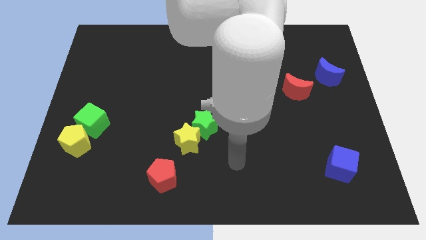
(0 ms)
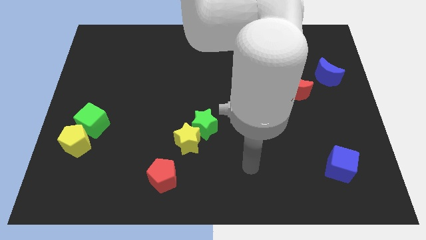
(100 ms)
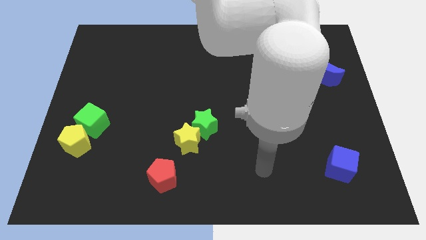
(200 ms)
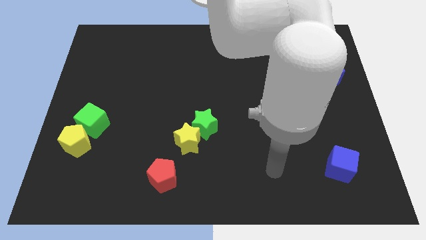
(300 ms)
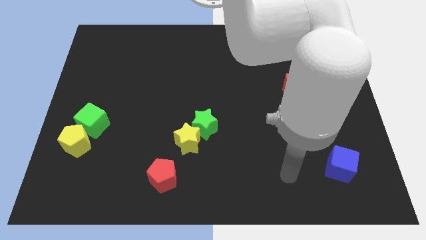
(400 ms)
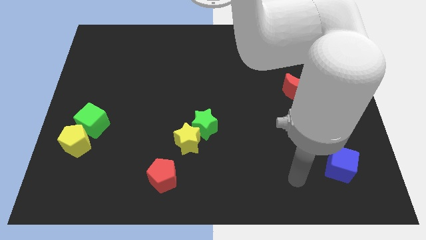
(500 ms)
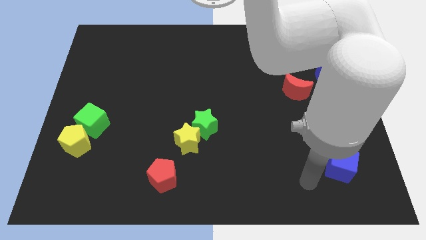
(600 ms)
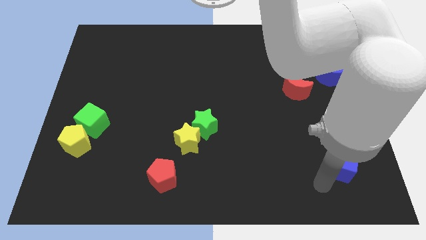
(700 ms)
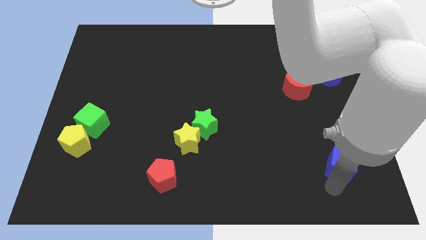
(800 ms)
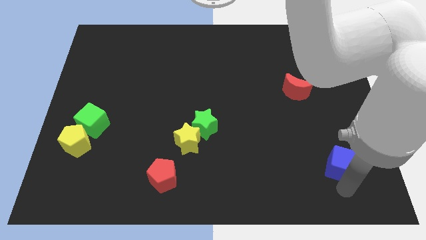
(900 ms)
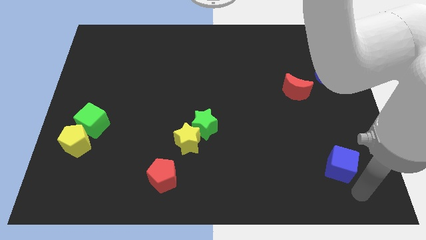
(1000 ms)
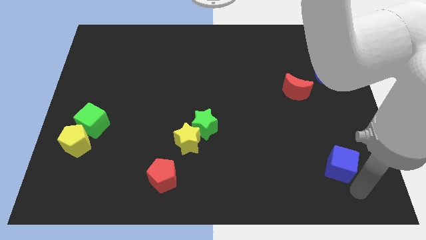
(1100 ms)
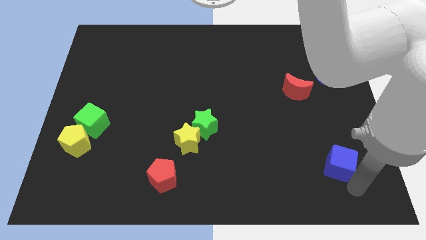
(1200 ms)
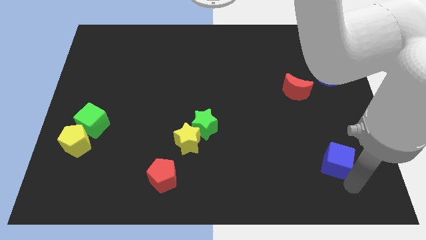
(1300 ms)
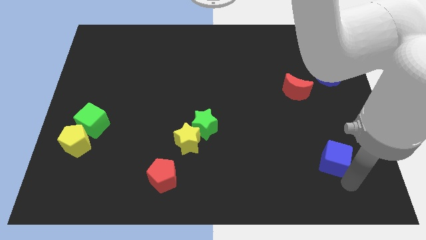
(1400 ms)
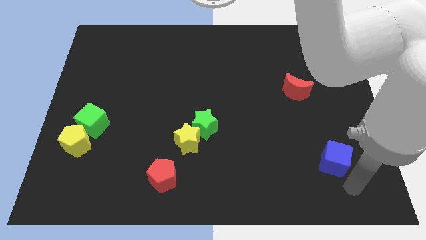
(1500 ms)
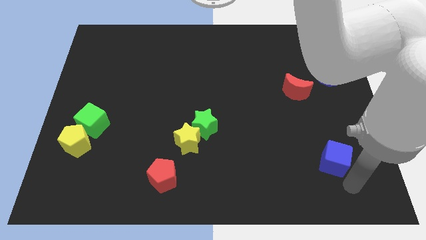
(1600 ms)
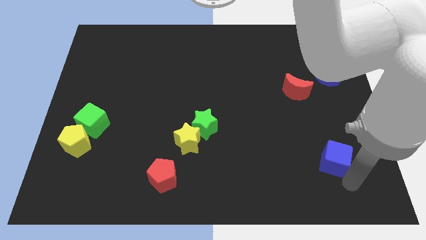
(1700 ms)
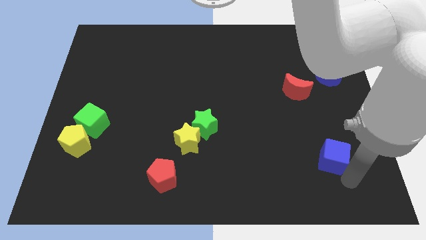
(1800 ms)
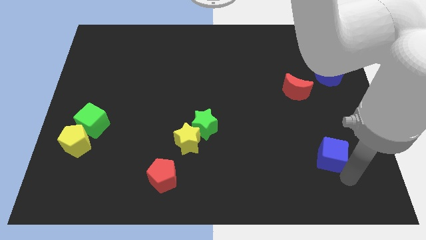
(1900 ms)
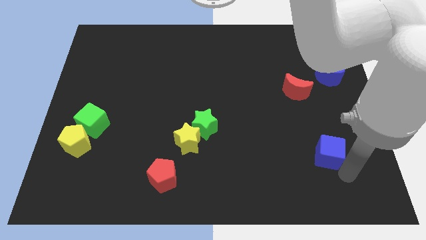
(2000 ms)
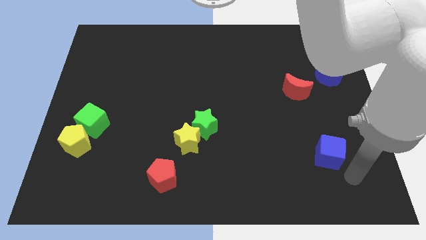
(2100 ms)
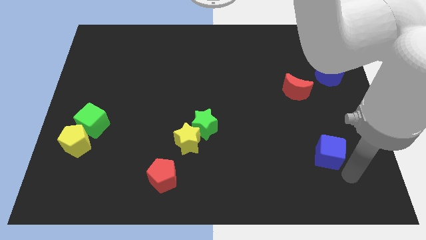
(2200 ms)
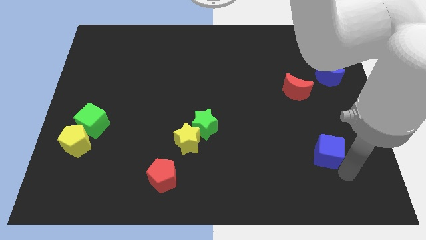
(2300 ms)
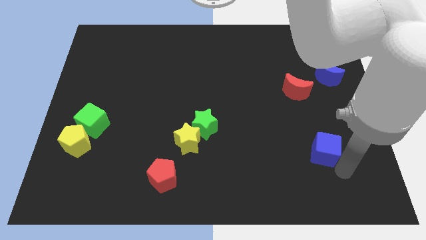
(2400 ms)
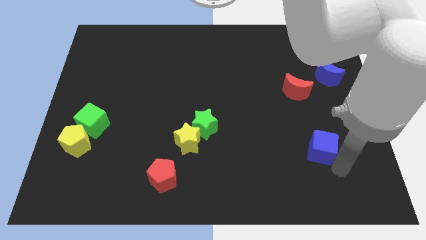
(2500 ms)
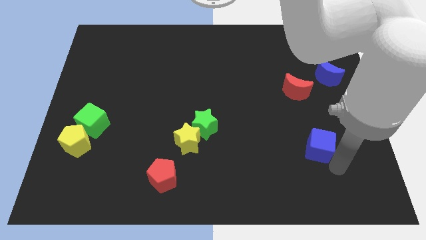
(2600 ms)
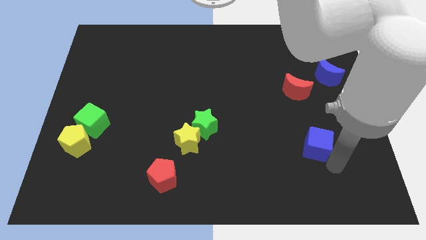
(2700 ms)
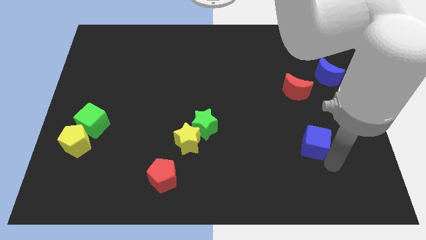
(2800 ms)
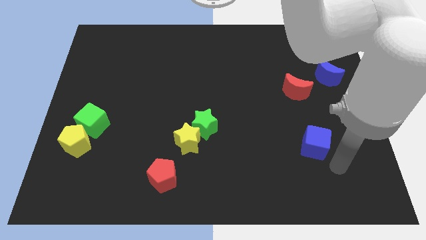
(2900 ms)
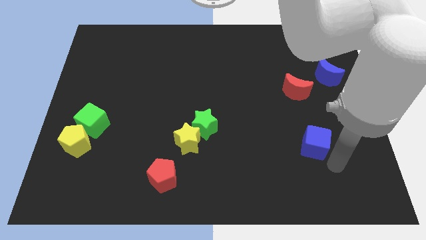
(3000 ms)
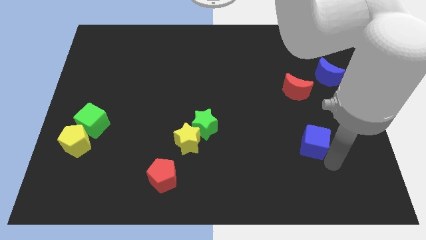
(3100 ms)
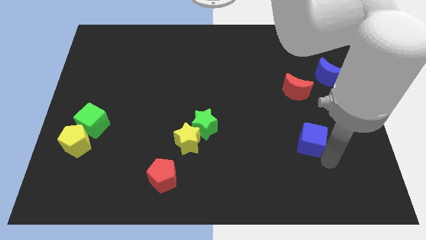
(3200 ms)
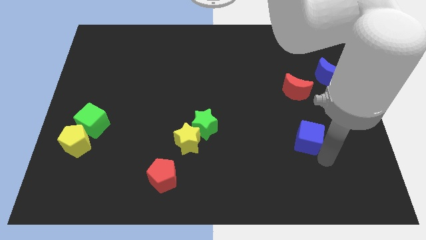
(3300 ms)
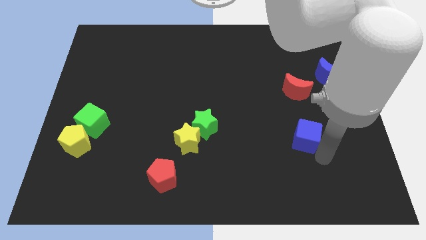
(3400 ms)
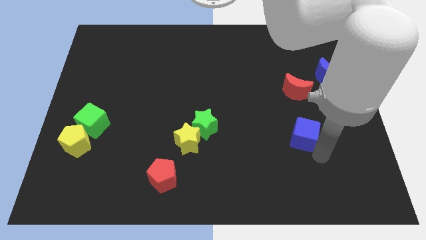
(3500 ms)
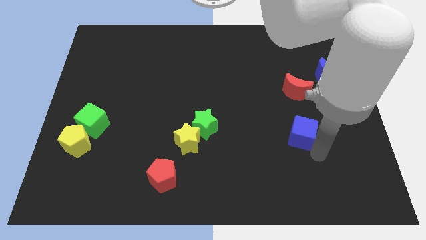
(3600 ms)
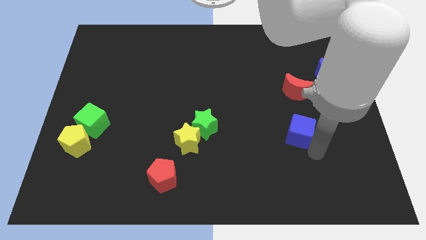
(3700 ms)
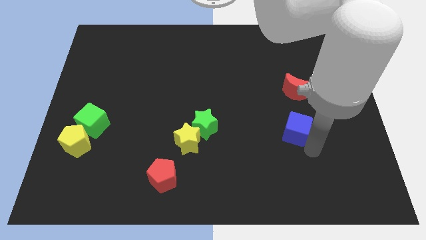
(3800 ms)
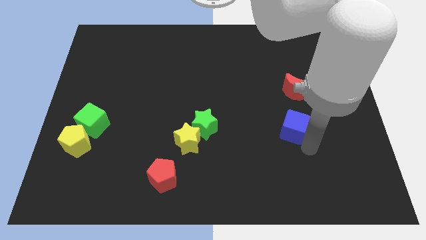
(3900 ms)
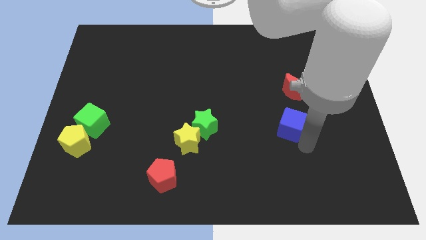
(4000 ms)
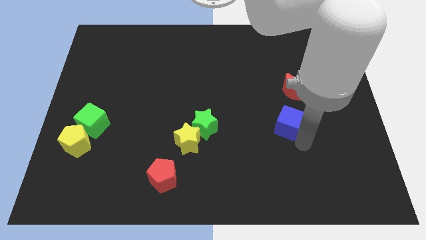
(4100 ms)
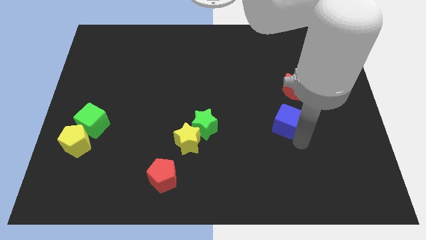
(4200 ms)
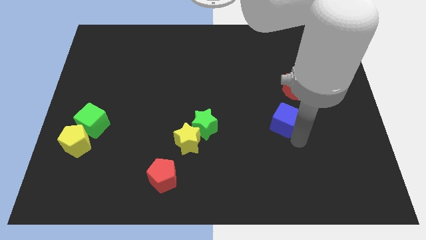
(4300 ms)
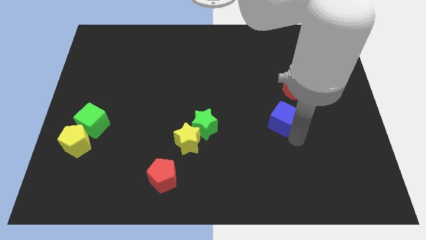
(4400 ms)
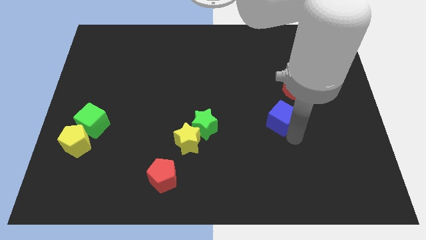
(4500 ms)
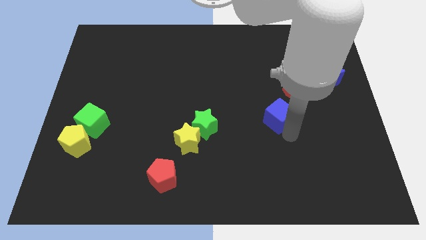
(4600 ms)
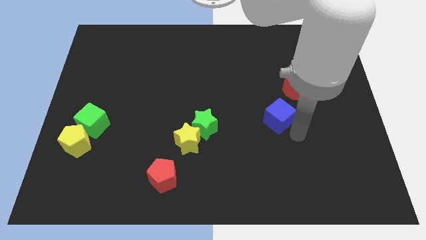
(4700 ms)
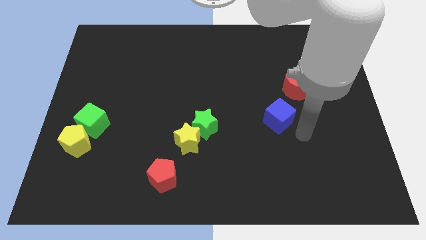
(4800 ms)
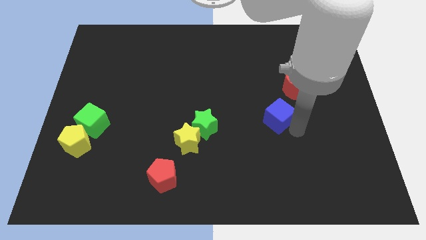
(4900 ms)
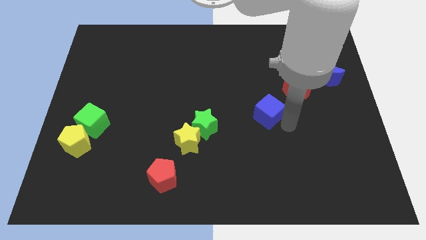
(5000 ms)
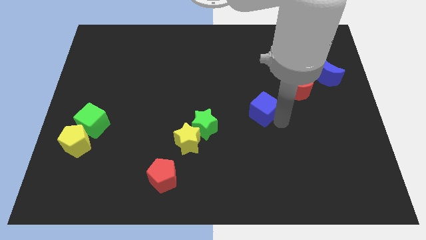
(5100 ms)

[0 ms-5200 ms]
slide the blue cube up and left diagonally

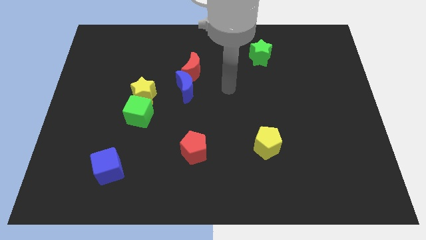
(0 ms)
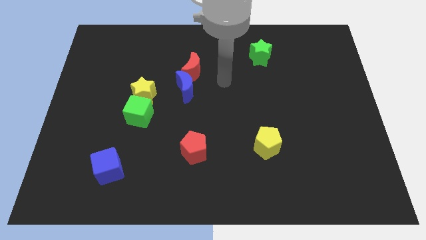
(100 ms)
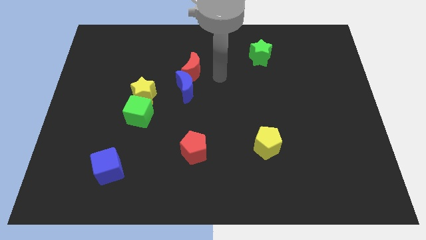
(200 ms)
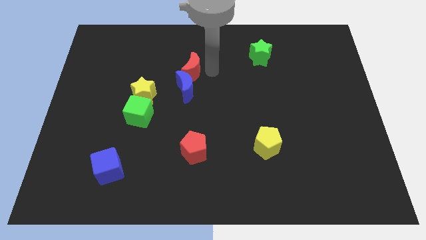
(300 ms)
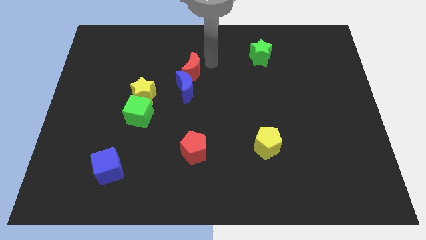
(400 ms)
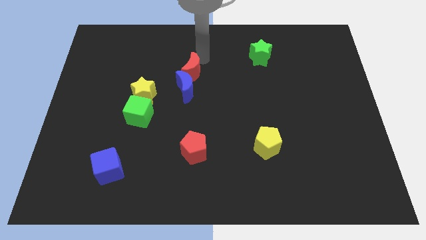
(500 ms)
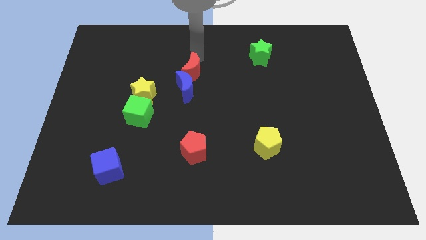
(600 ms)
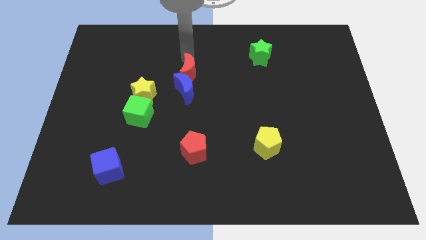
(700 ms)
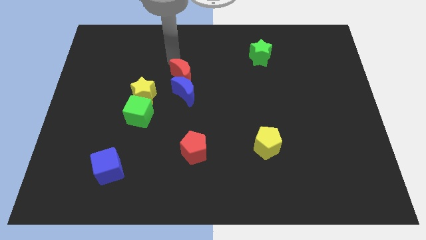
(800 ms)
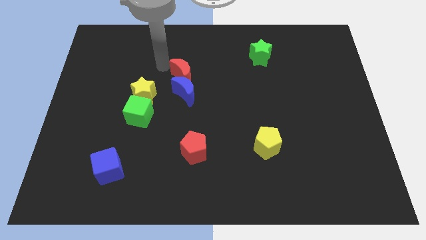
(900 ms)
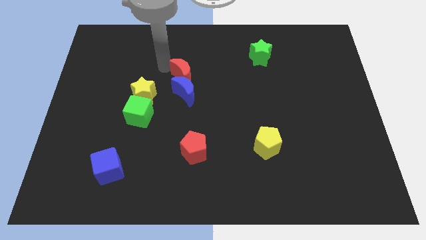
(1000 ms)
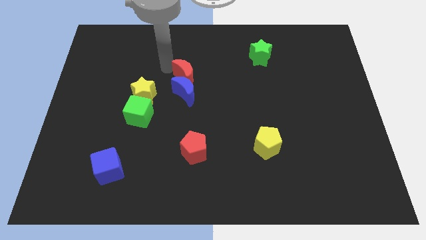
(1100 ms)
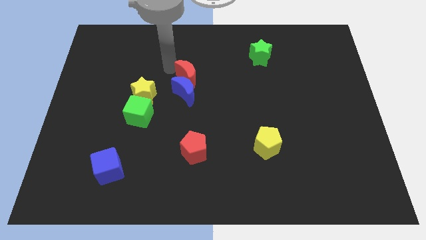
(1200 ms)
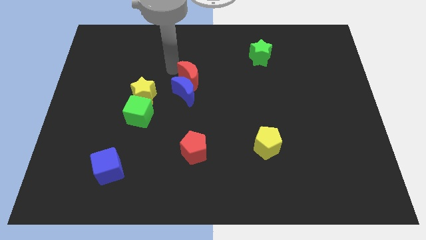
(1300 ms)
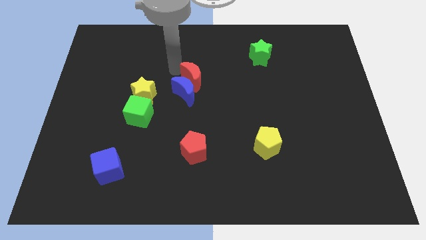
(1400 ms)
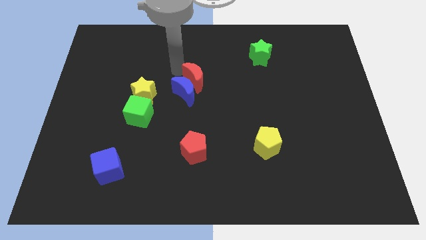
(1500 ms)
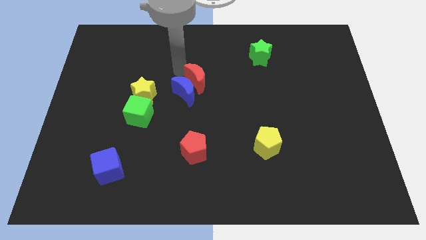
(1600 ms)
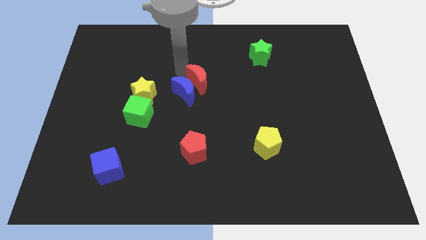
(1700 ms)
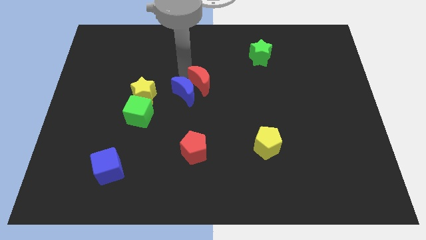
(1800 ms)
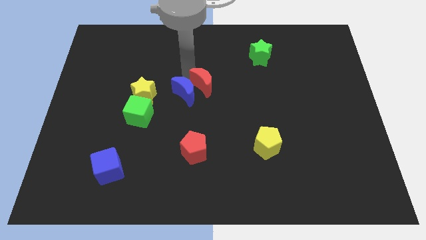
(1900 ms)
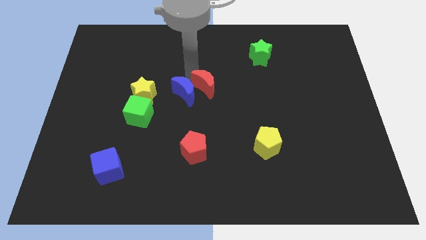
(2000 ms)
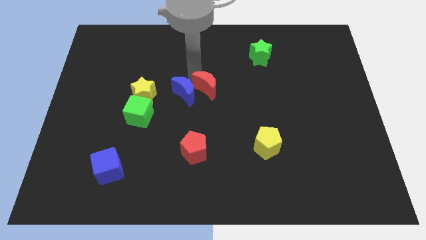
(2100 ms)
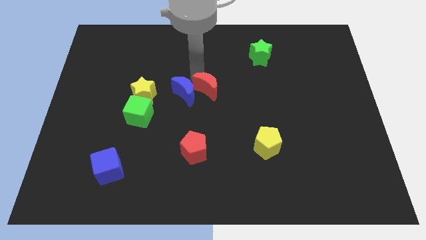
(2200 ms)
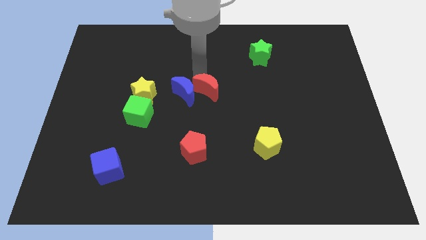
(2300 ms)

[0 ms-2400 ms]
slide the red moon down and then to the right somewhat

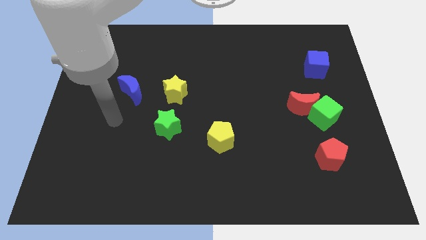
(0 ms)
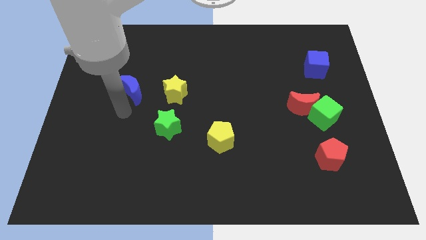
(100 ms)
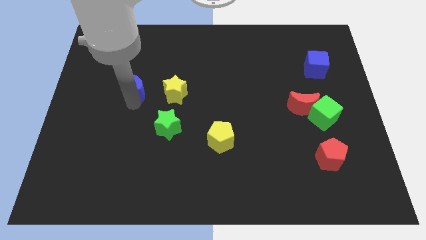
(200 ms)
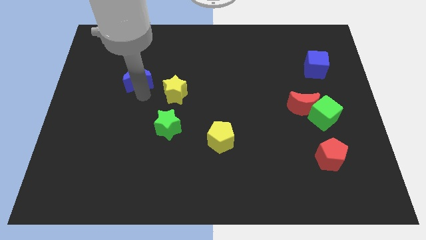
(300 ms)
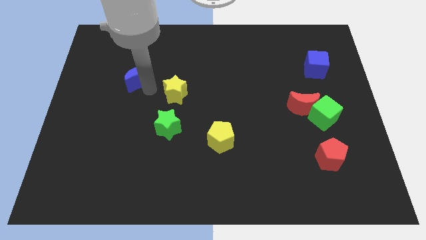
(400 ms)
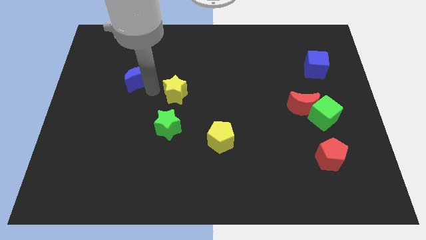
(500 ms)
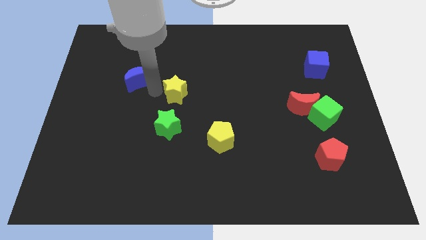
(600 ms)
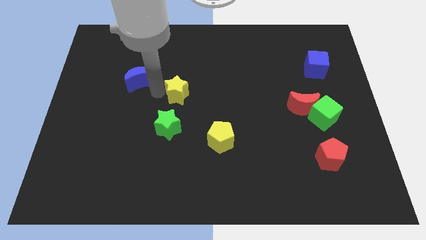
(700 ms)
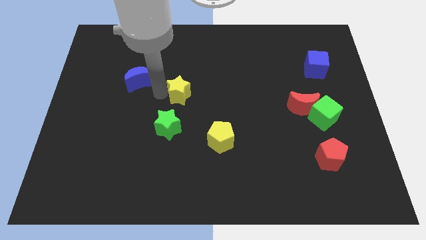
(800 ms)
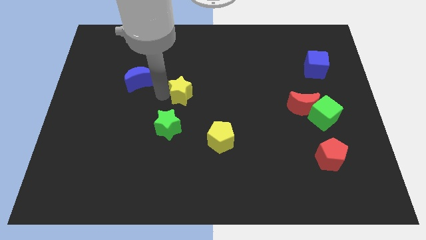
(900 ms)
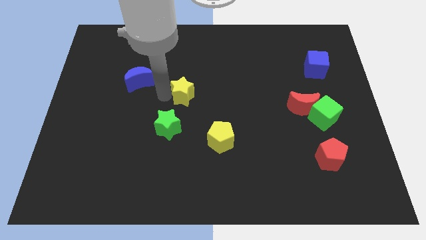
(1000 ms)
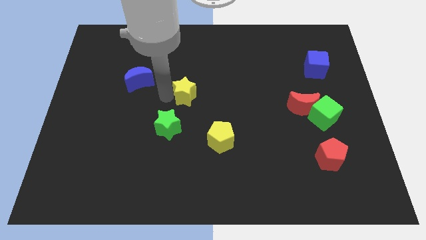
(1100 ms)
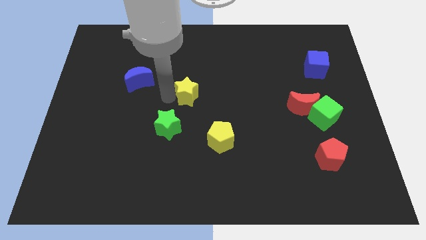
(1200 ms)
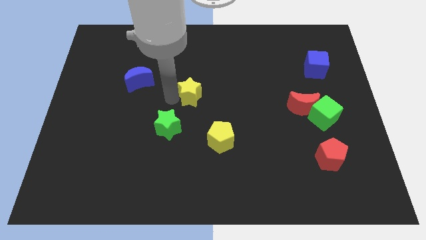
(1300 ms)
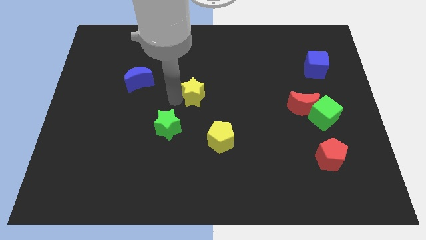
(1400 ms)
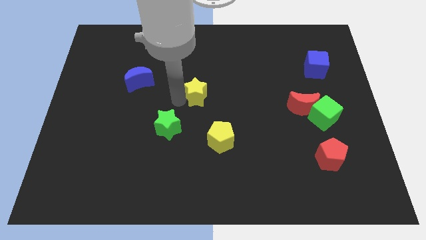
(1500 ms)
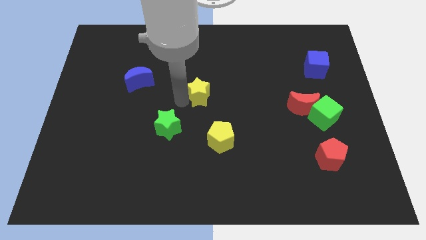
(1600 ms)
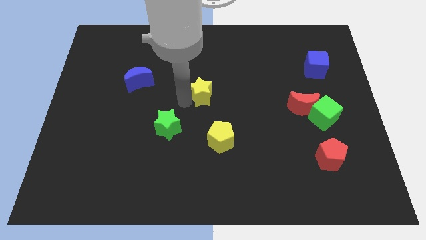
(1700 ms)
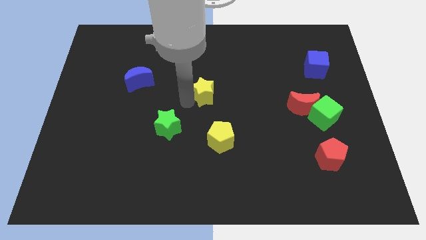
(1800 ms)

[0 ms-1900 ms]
slightly slide the yellow star to the right
